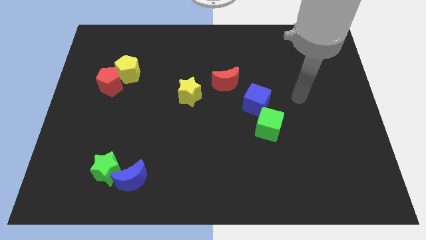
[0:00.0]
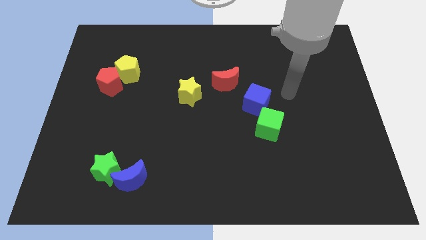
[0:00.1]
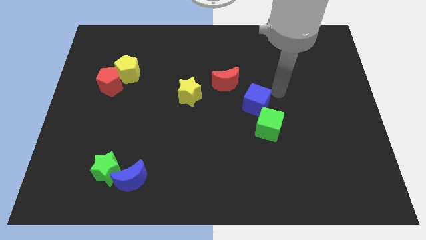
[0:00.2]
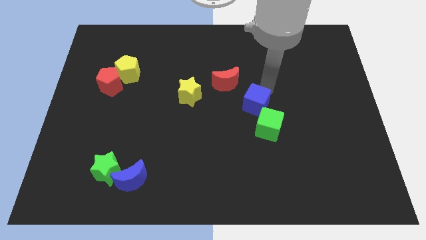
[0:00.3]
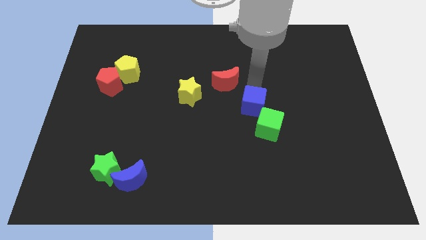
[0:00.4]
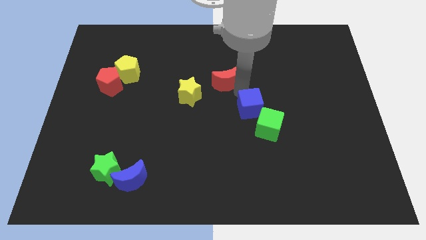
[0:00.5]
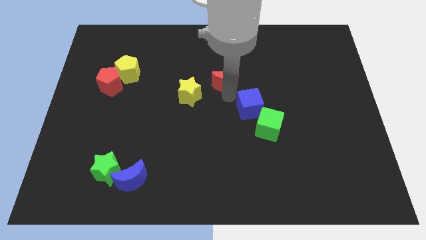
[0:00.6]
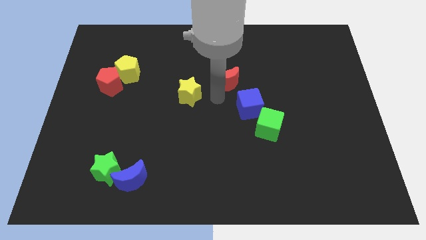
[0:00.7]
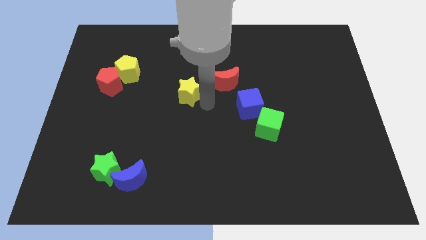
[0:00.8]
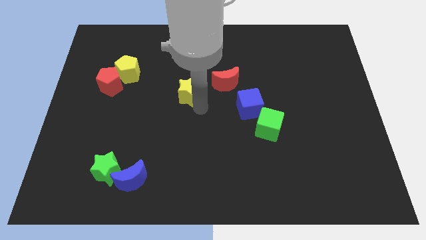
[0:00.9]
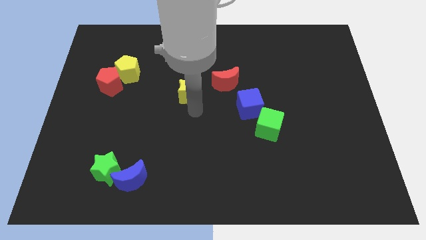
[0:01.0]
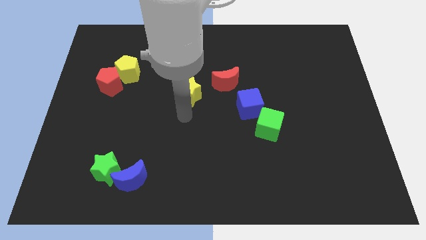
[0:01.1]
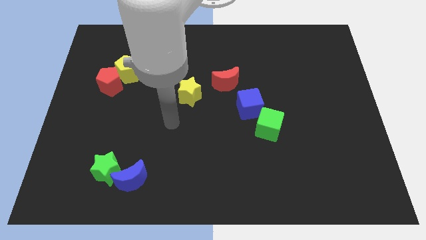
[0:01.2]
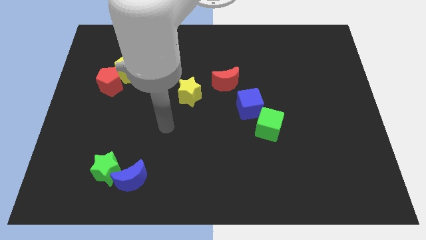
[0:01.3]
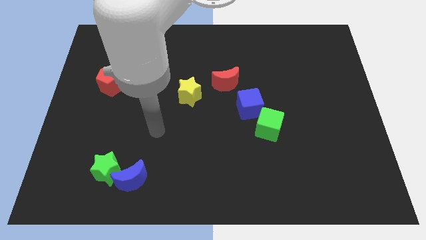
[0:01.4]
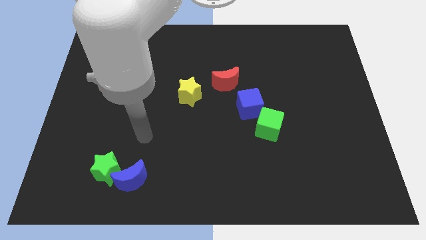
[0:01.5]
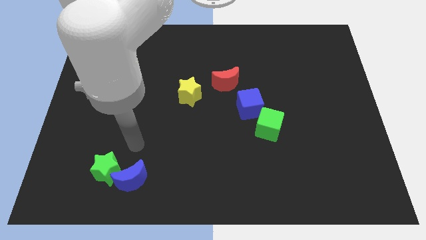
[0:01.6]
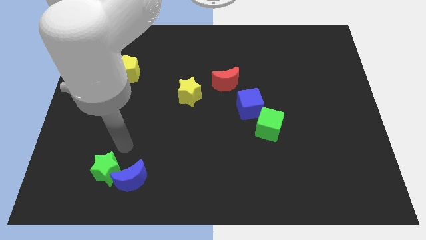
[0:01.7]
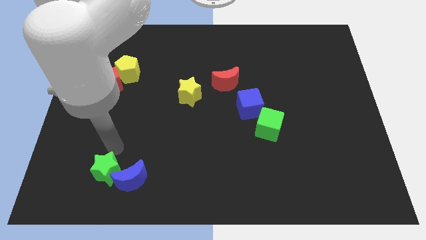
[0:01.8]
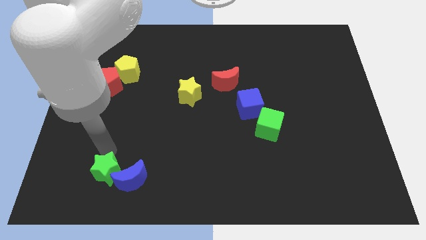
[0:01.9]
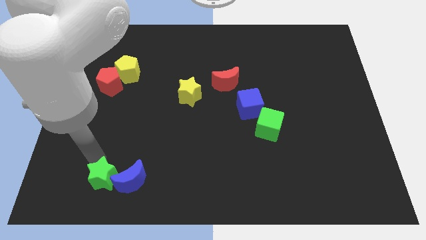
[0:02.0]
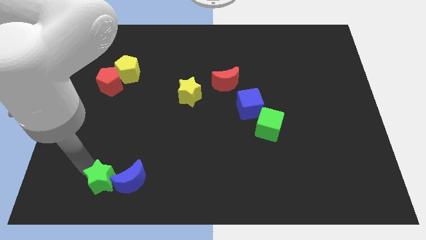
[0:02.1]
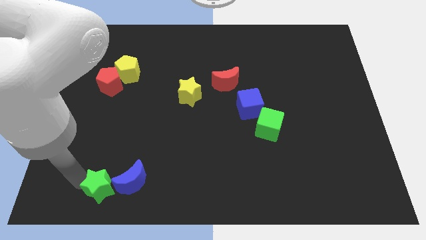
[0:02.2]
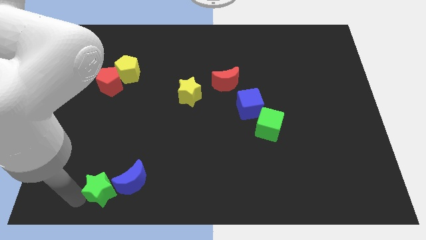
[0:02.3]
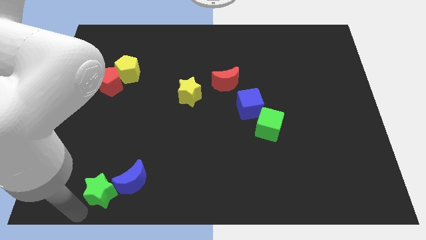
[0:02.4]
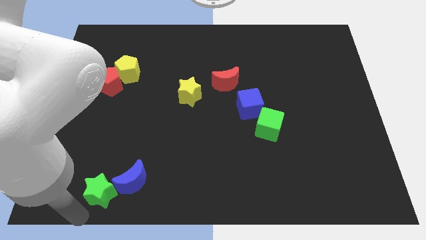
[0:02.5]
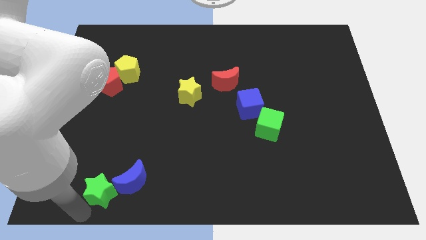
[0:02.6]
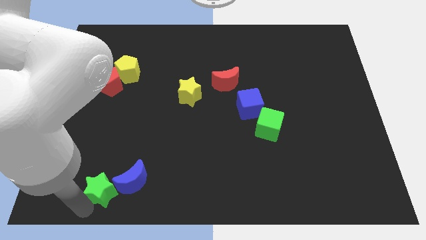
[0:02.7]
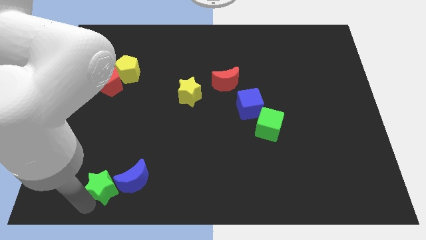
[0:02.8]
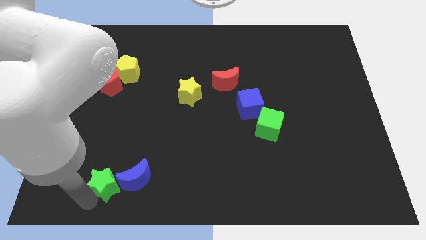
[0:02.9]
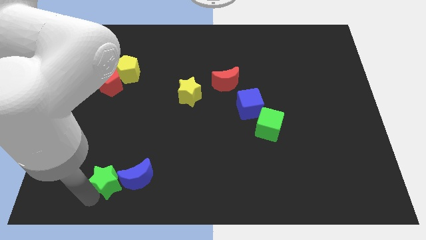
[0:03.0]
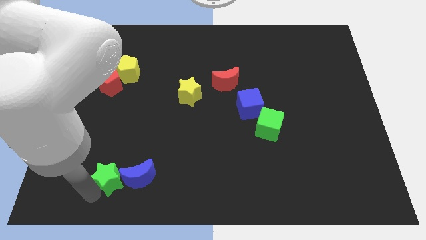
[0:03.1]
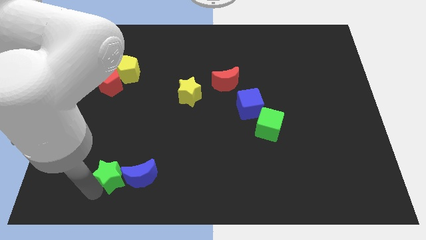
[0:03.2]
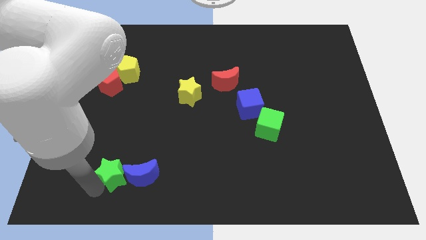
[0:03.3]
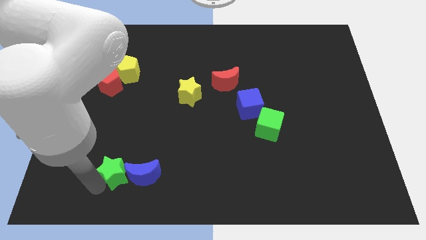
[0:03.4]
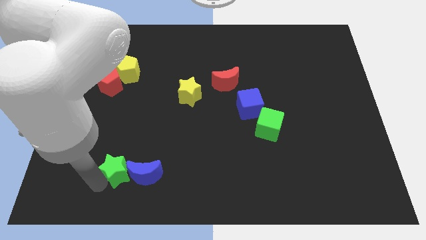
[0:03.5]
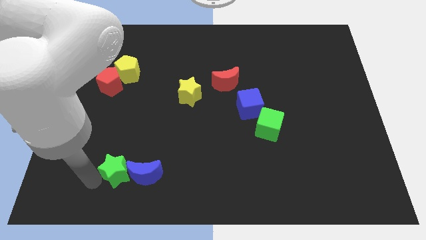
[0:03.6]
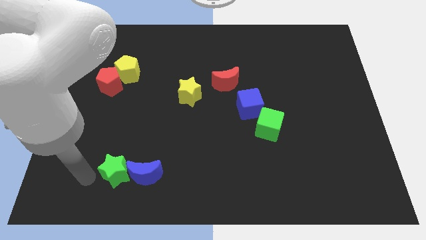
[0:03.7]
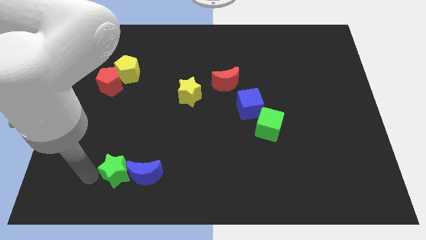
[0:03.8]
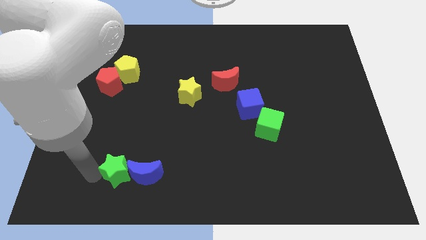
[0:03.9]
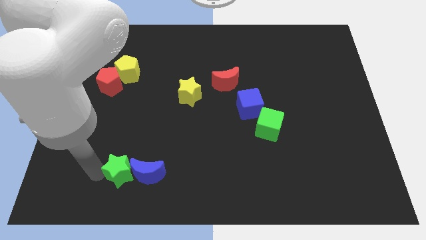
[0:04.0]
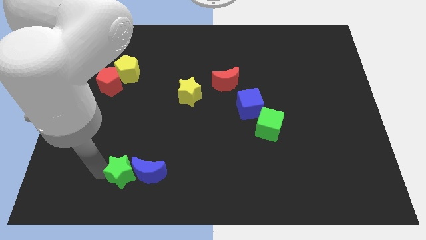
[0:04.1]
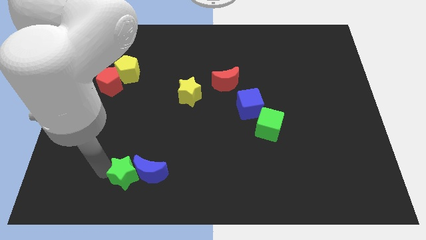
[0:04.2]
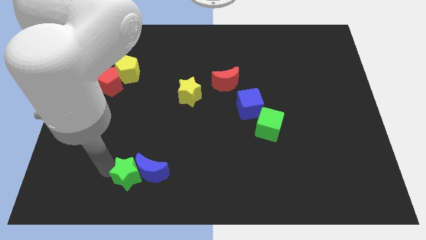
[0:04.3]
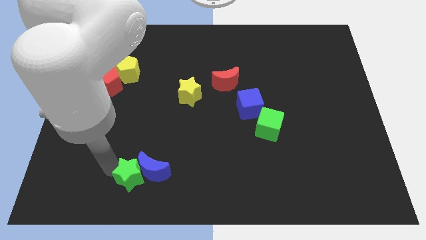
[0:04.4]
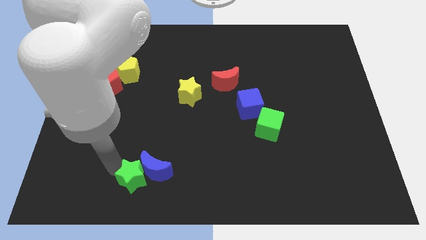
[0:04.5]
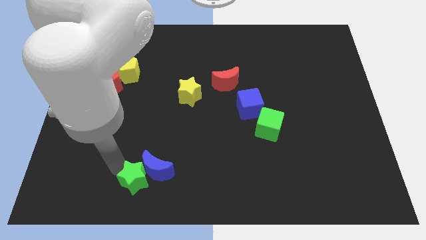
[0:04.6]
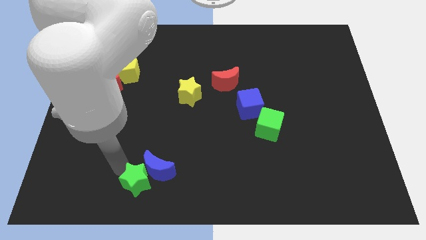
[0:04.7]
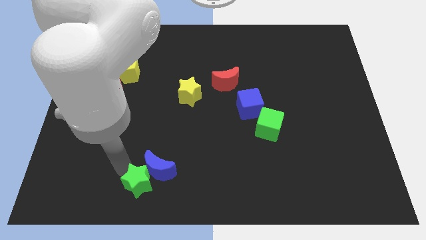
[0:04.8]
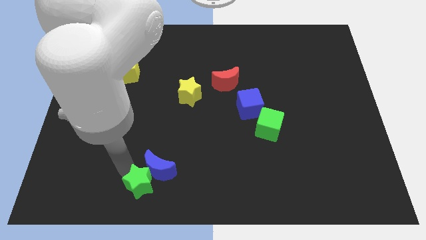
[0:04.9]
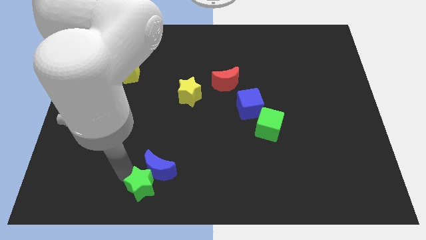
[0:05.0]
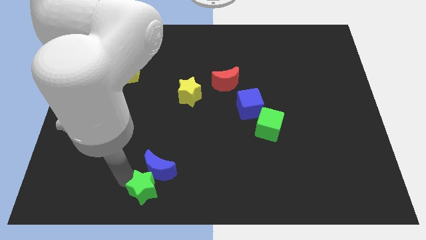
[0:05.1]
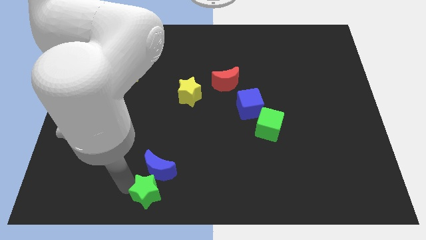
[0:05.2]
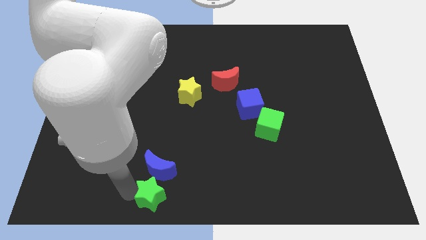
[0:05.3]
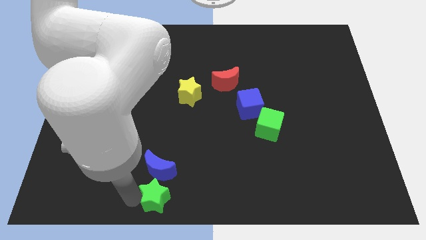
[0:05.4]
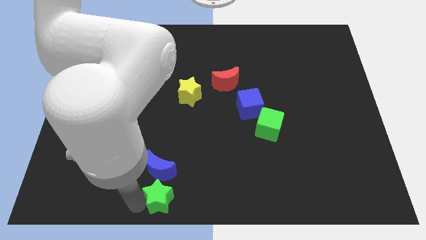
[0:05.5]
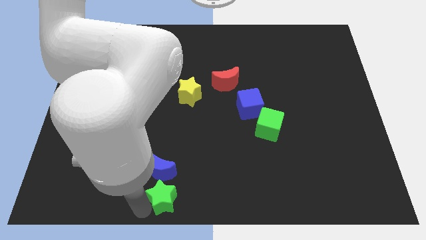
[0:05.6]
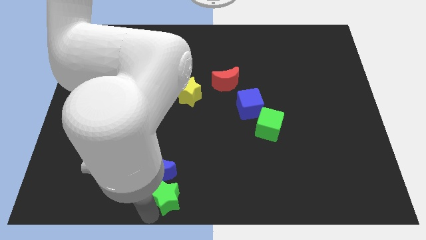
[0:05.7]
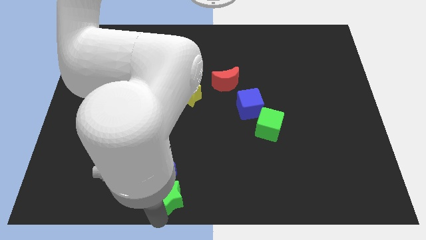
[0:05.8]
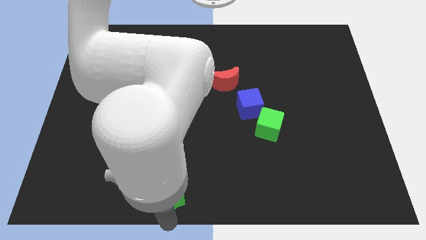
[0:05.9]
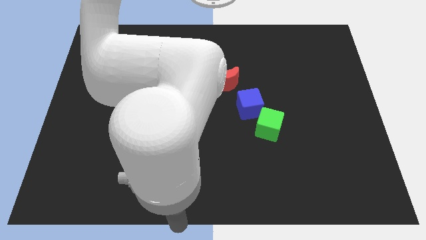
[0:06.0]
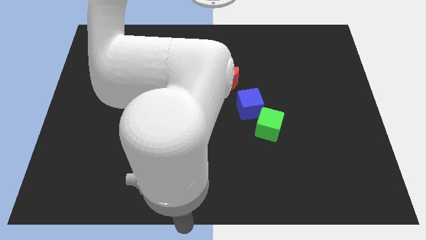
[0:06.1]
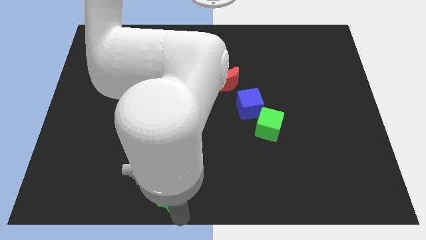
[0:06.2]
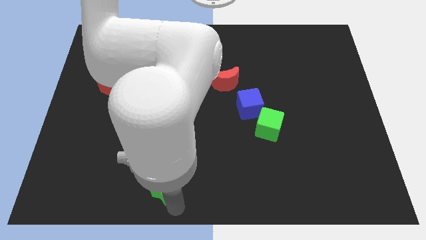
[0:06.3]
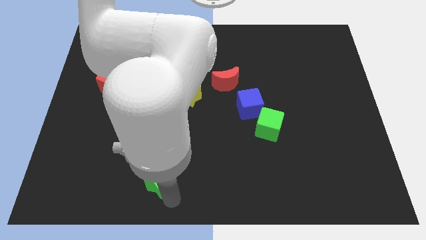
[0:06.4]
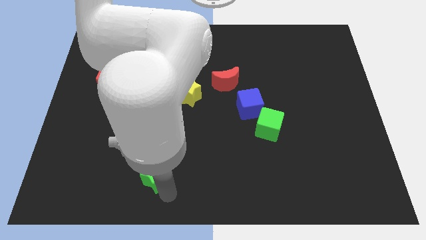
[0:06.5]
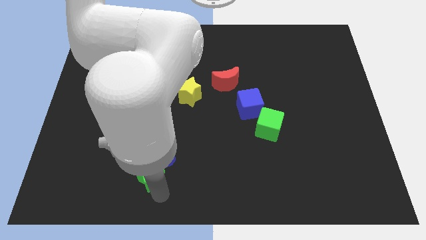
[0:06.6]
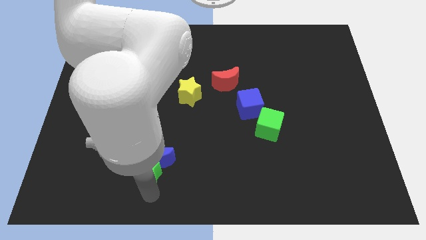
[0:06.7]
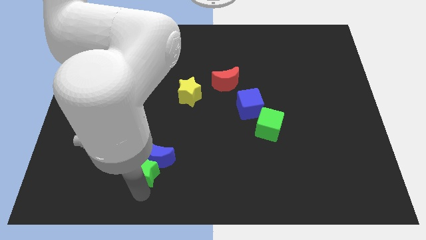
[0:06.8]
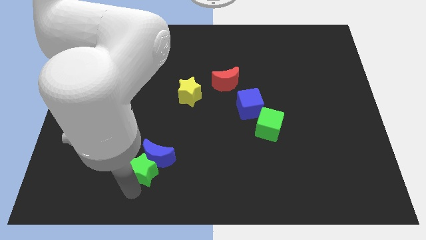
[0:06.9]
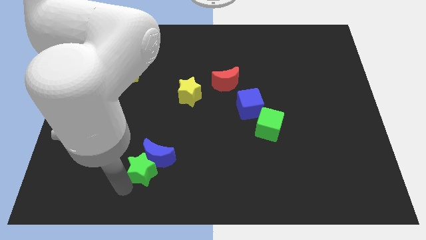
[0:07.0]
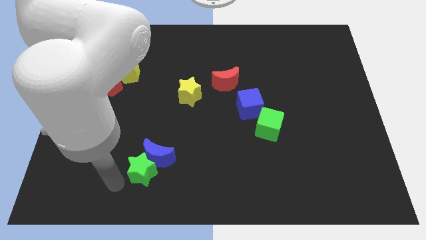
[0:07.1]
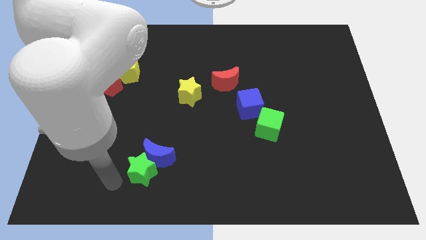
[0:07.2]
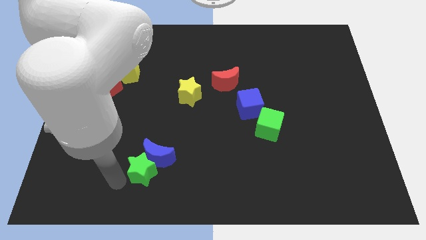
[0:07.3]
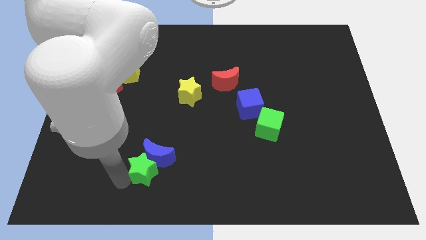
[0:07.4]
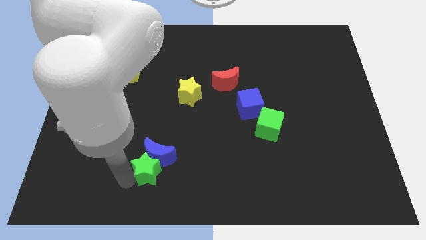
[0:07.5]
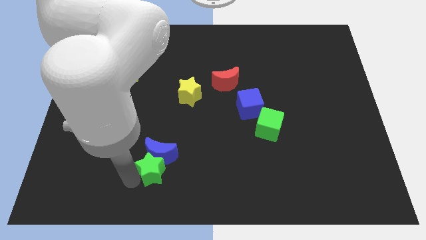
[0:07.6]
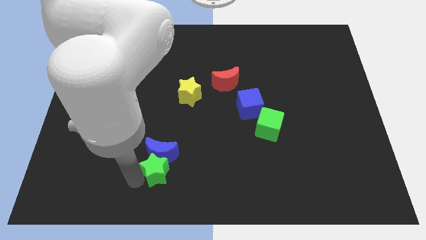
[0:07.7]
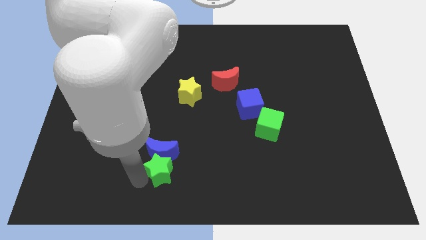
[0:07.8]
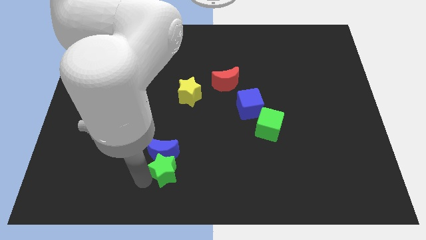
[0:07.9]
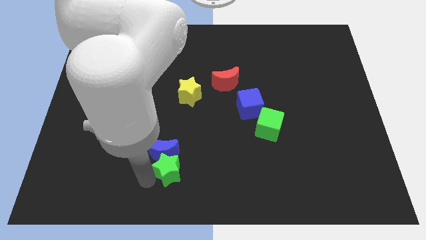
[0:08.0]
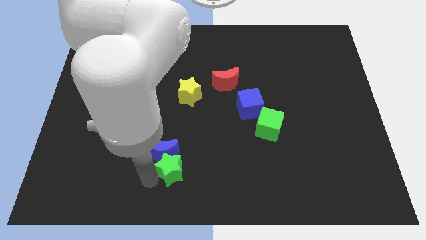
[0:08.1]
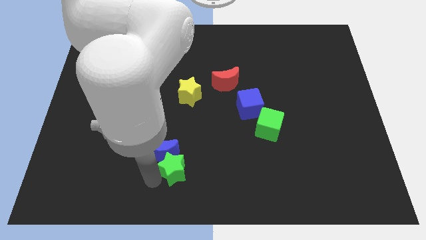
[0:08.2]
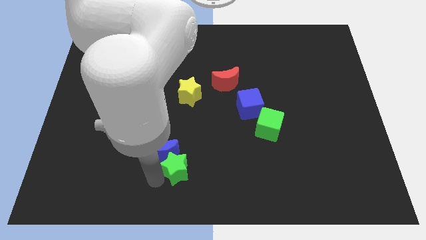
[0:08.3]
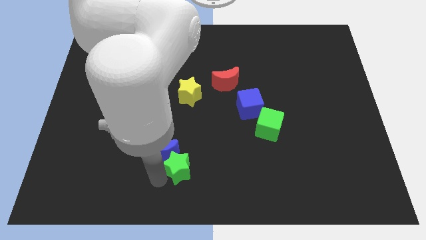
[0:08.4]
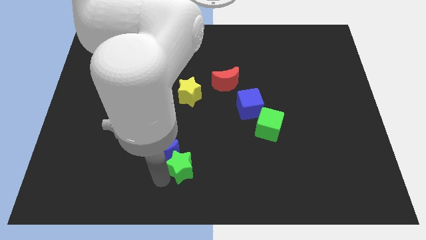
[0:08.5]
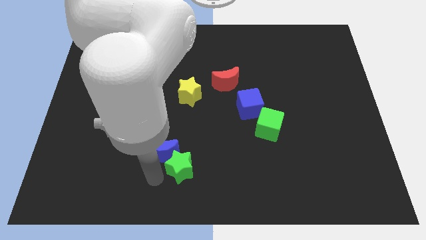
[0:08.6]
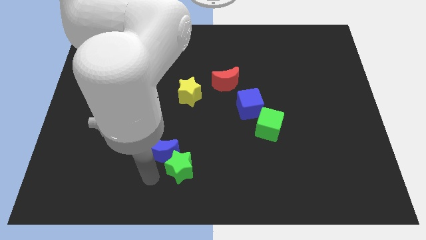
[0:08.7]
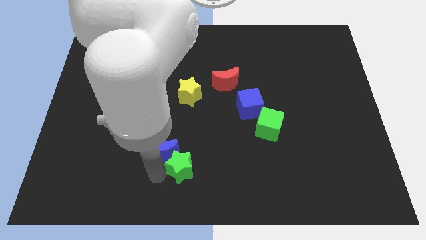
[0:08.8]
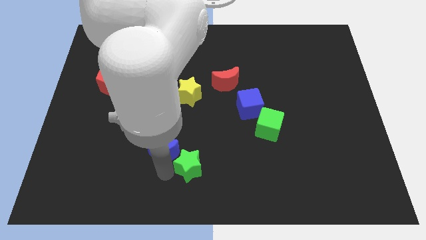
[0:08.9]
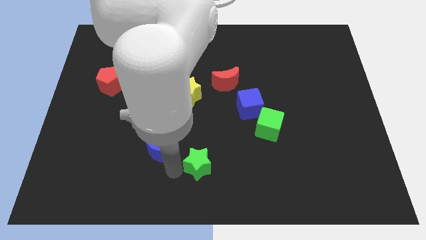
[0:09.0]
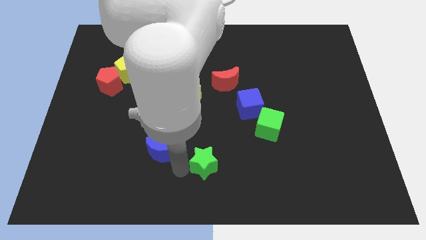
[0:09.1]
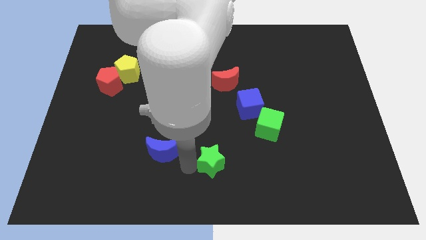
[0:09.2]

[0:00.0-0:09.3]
move the green star to the right
